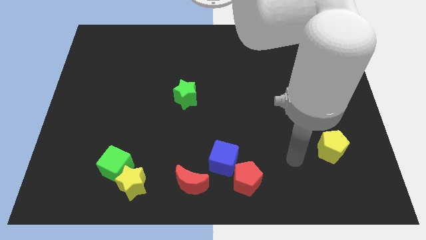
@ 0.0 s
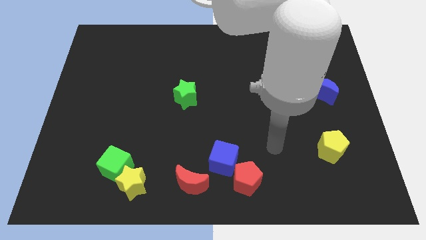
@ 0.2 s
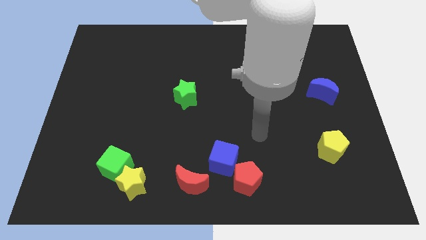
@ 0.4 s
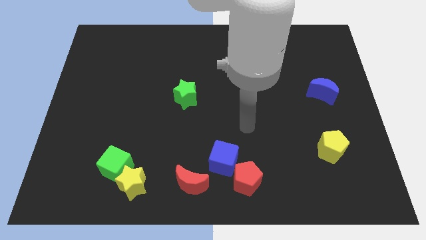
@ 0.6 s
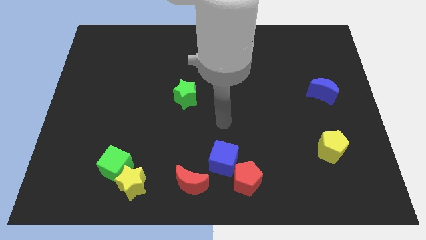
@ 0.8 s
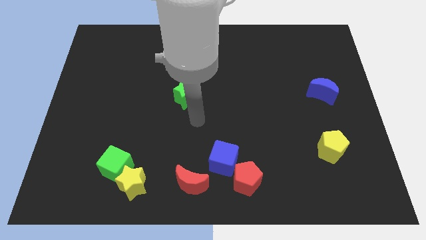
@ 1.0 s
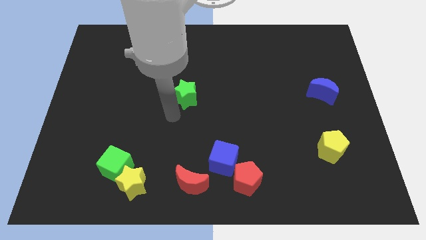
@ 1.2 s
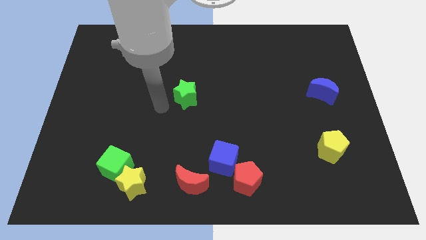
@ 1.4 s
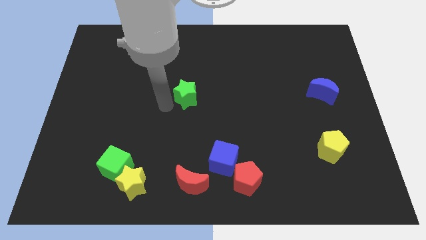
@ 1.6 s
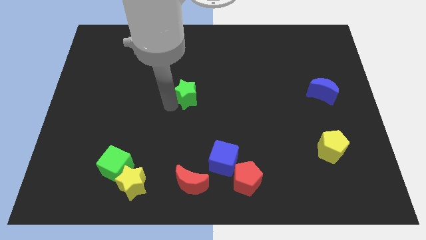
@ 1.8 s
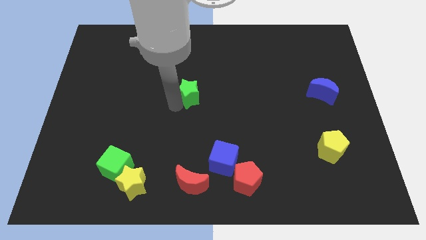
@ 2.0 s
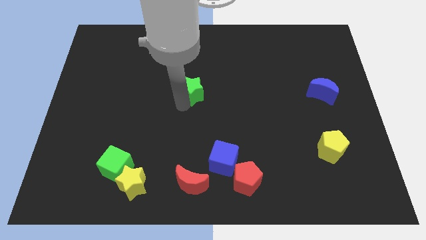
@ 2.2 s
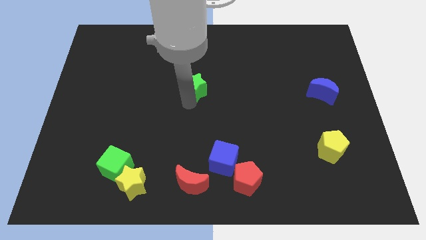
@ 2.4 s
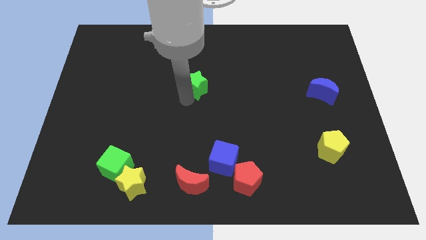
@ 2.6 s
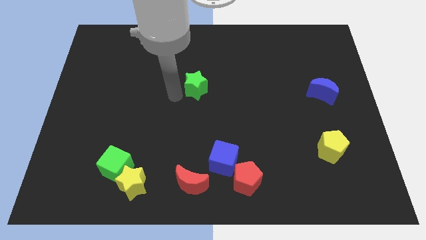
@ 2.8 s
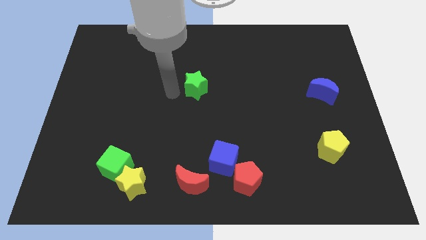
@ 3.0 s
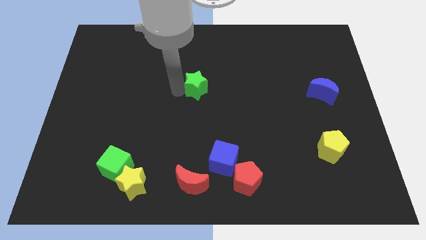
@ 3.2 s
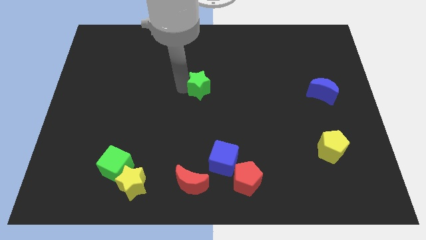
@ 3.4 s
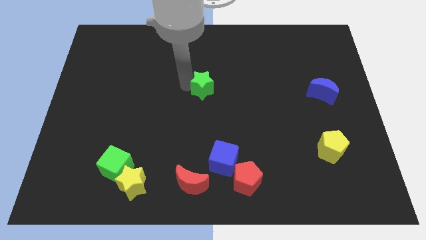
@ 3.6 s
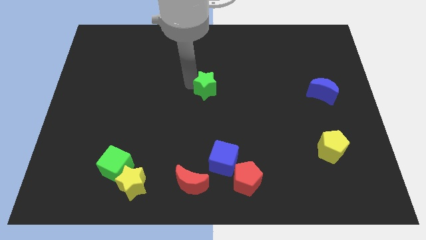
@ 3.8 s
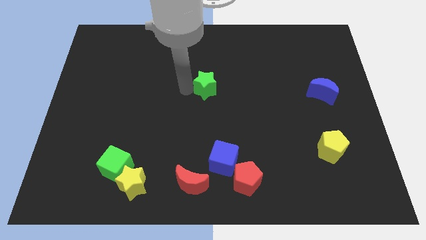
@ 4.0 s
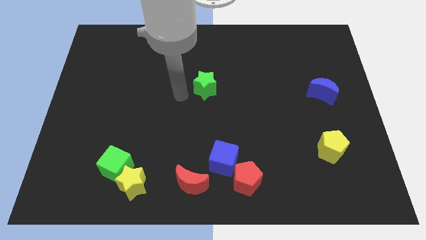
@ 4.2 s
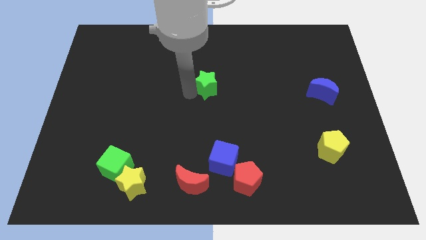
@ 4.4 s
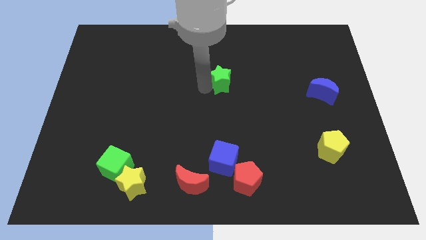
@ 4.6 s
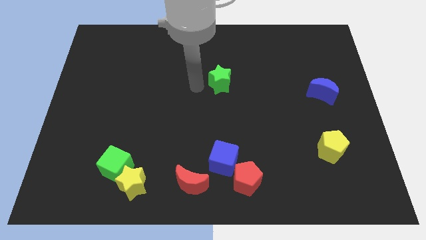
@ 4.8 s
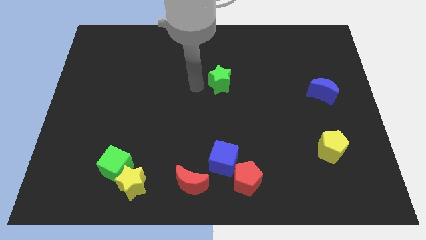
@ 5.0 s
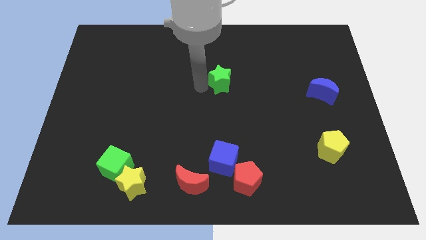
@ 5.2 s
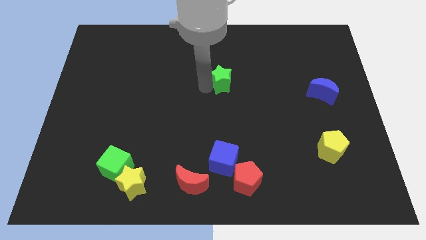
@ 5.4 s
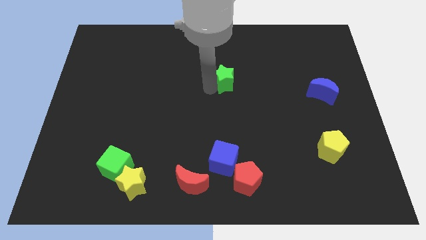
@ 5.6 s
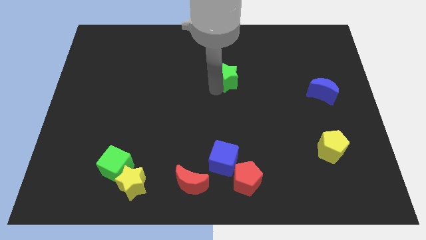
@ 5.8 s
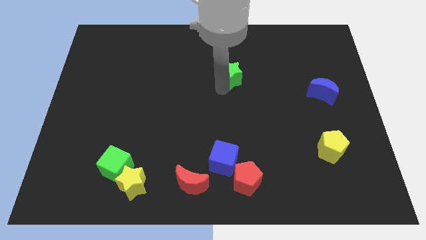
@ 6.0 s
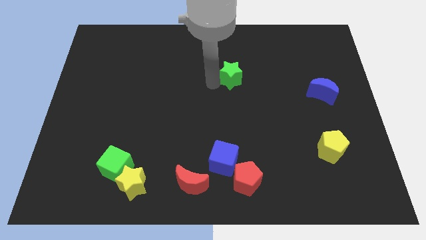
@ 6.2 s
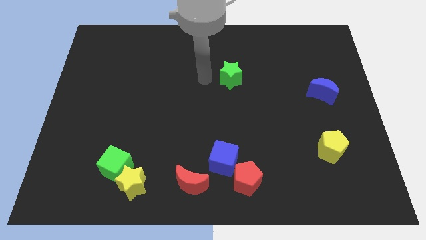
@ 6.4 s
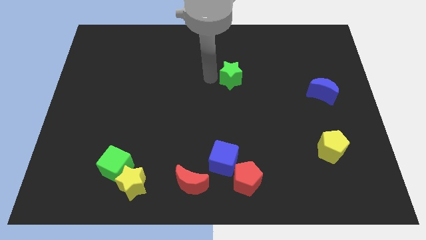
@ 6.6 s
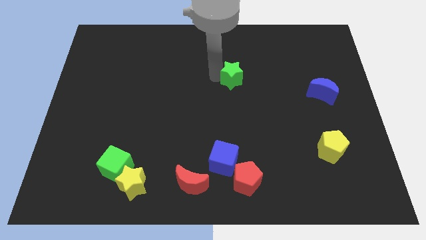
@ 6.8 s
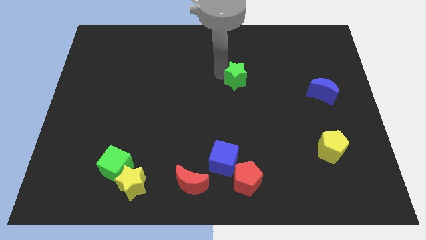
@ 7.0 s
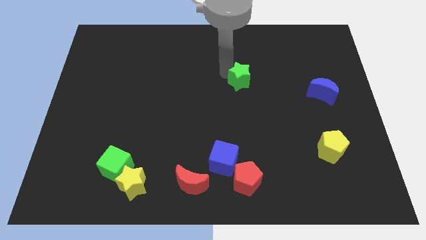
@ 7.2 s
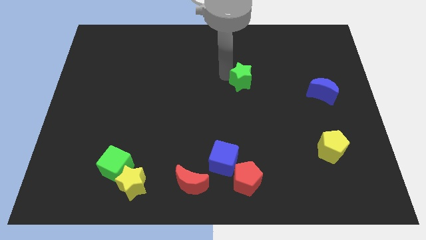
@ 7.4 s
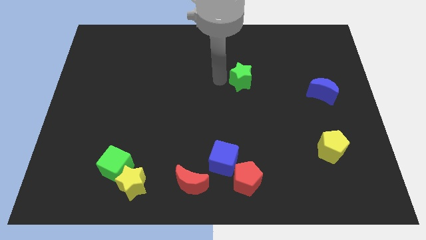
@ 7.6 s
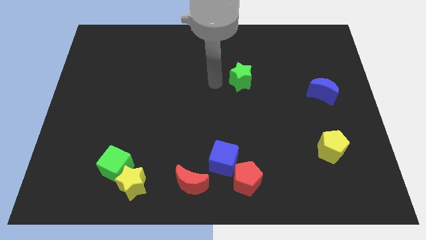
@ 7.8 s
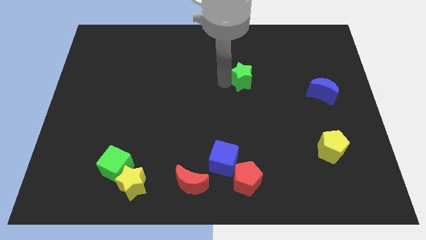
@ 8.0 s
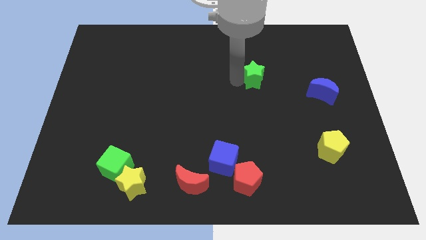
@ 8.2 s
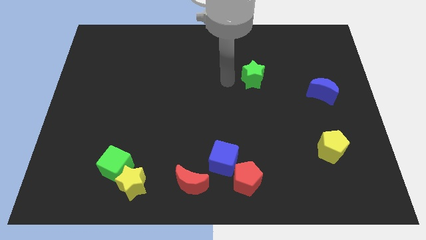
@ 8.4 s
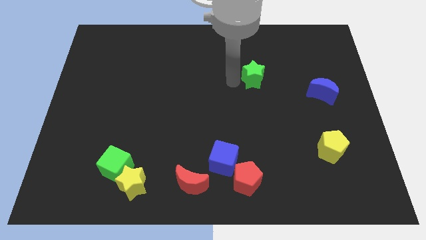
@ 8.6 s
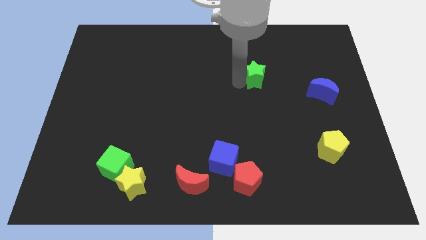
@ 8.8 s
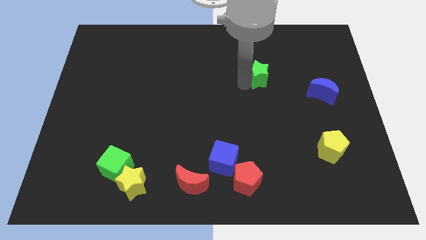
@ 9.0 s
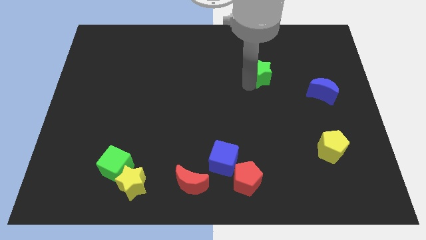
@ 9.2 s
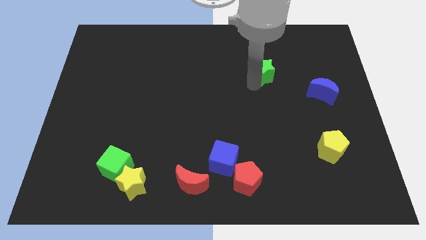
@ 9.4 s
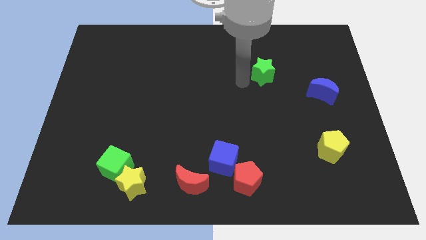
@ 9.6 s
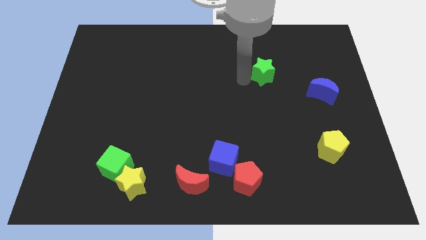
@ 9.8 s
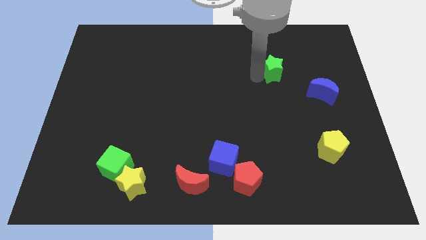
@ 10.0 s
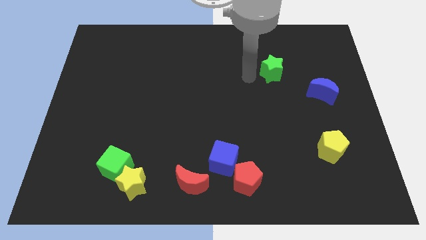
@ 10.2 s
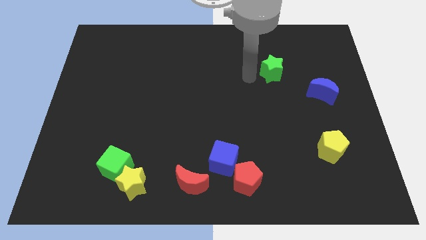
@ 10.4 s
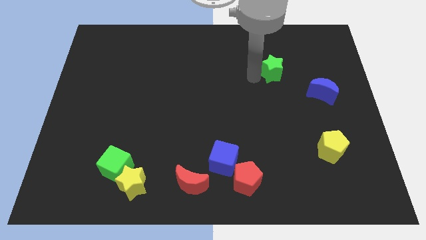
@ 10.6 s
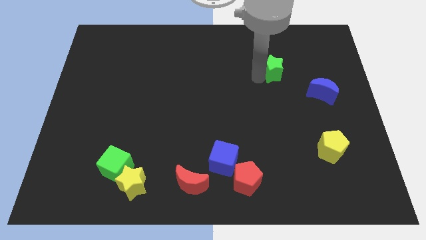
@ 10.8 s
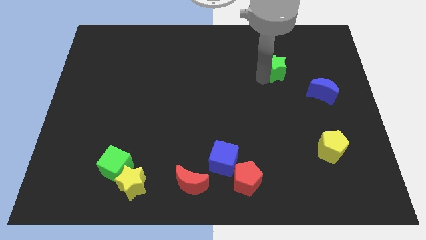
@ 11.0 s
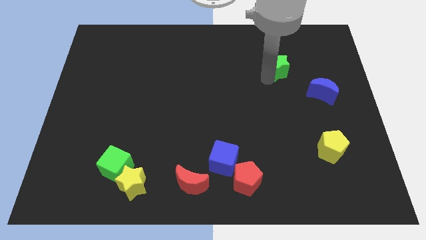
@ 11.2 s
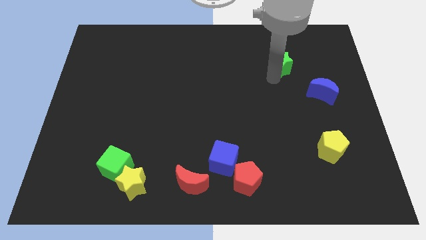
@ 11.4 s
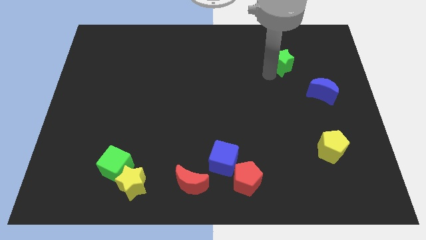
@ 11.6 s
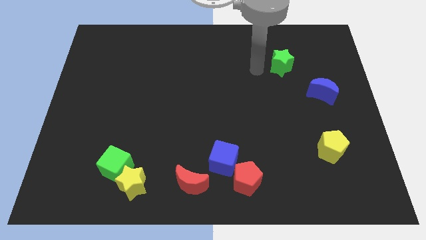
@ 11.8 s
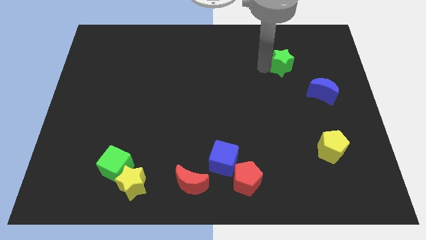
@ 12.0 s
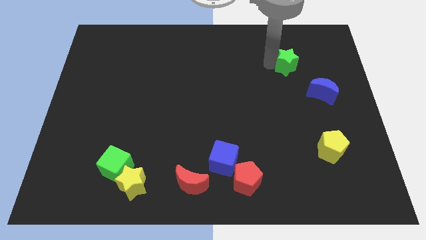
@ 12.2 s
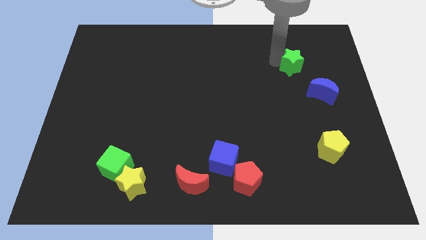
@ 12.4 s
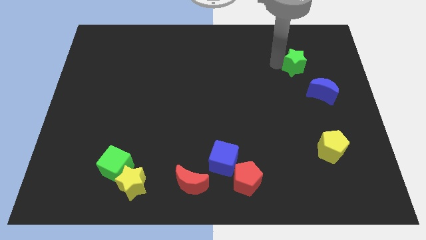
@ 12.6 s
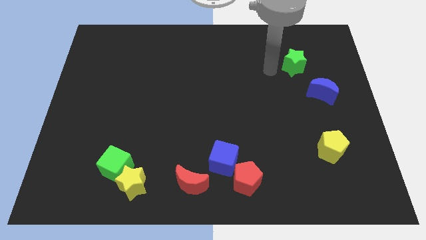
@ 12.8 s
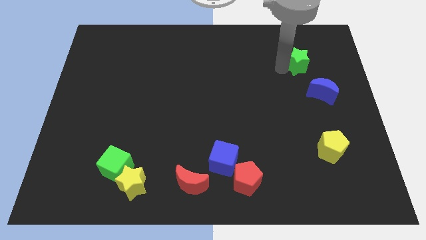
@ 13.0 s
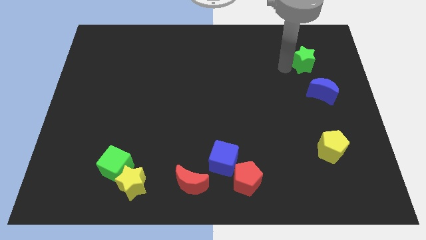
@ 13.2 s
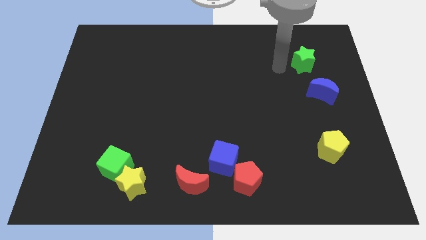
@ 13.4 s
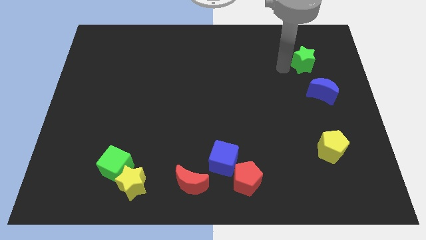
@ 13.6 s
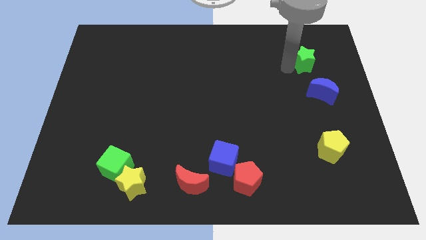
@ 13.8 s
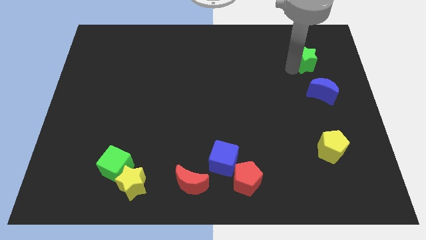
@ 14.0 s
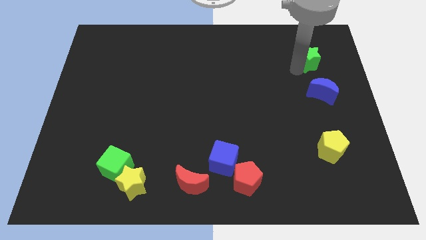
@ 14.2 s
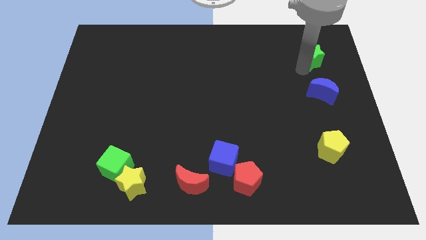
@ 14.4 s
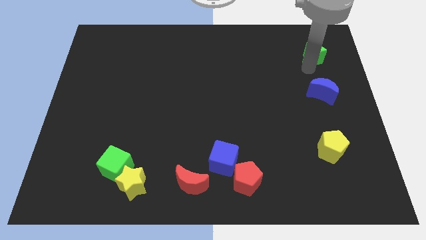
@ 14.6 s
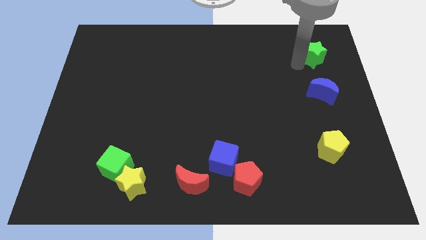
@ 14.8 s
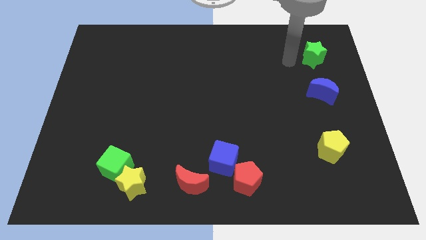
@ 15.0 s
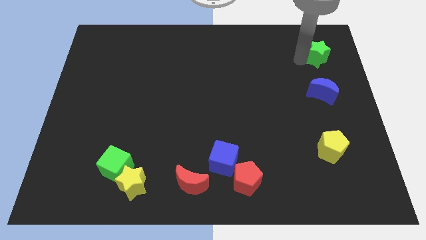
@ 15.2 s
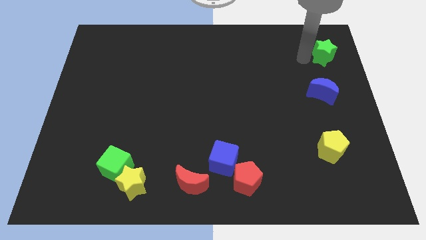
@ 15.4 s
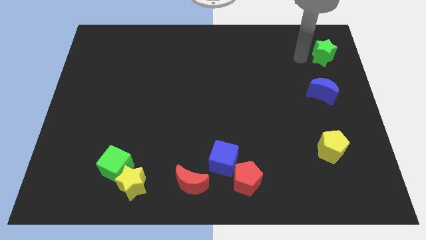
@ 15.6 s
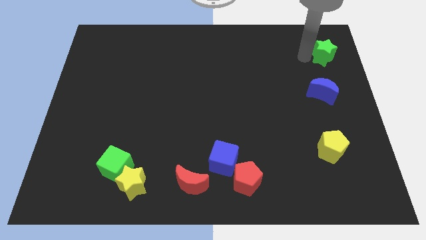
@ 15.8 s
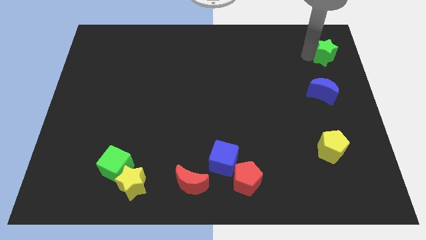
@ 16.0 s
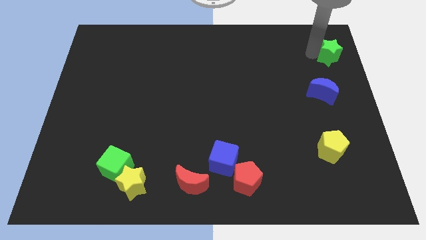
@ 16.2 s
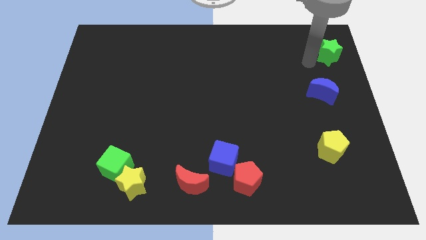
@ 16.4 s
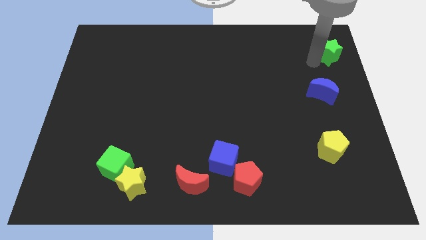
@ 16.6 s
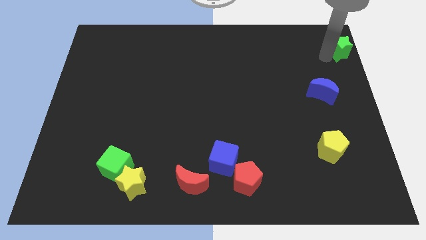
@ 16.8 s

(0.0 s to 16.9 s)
push the green star to the top right corner
